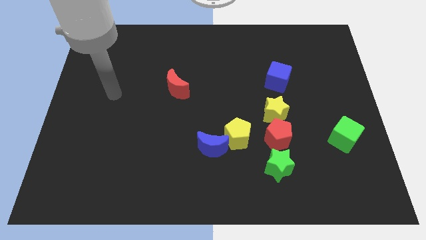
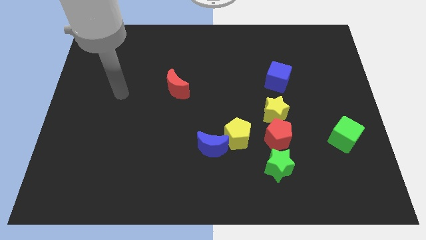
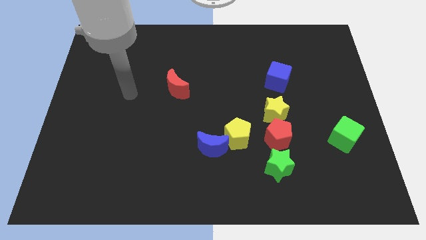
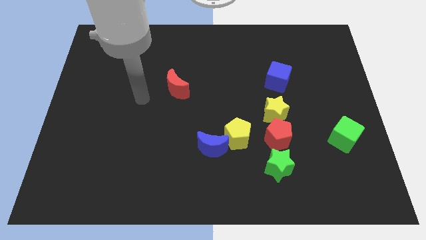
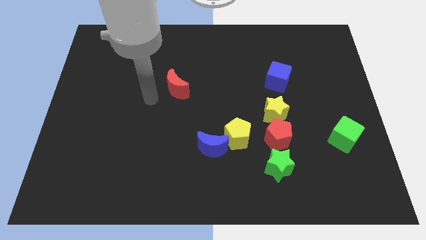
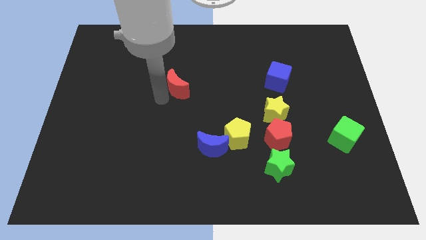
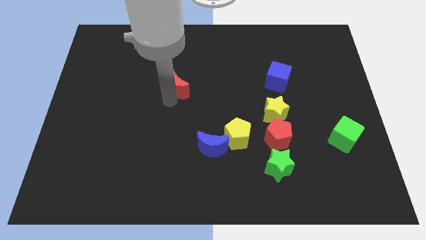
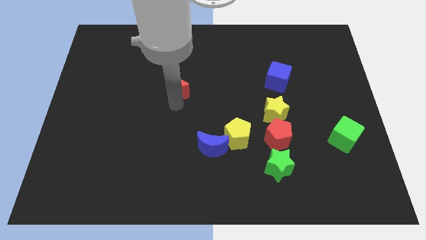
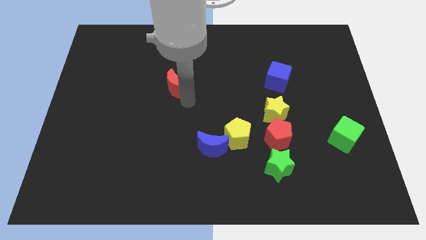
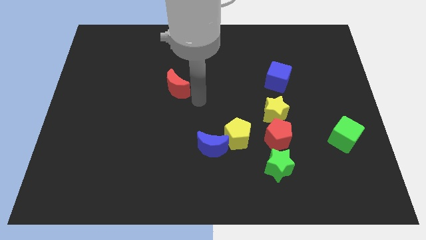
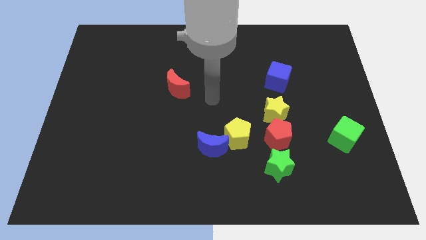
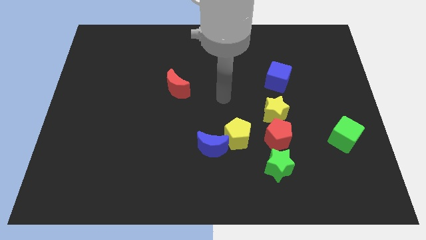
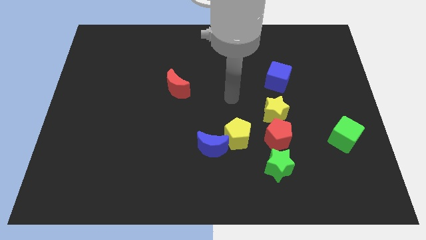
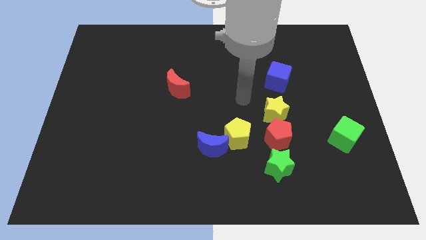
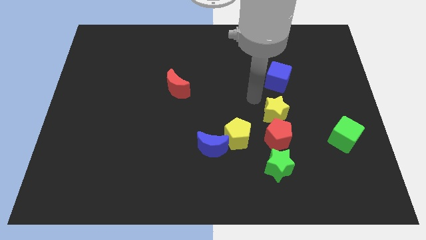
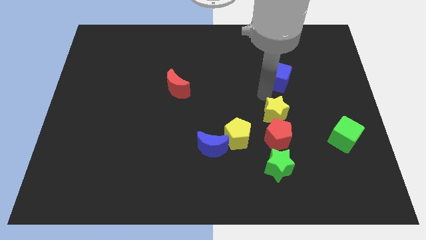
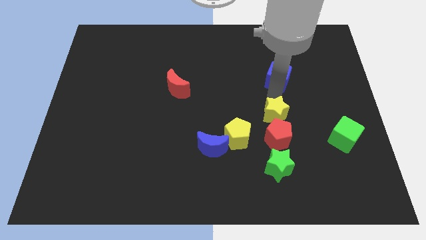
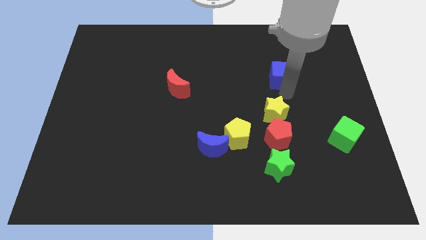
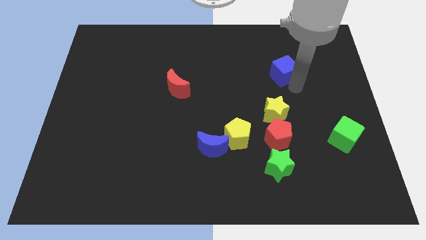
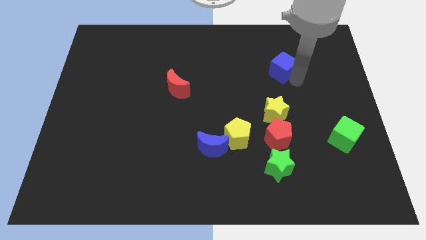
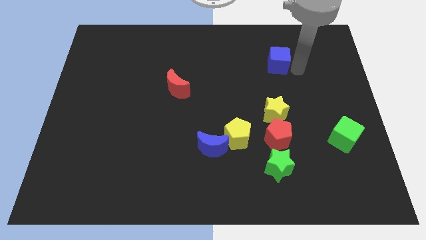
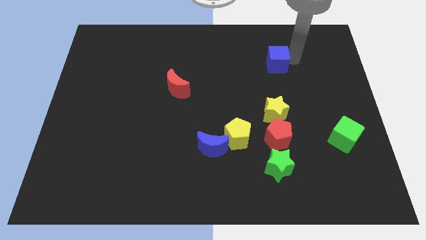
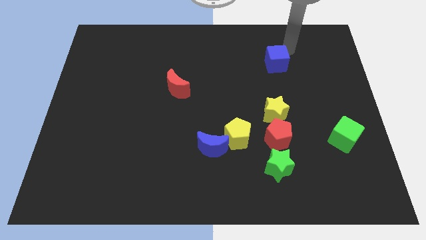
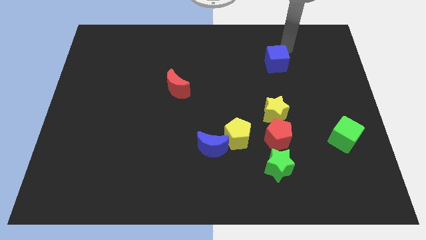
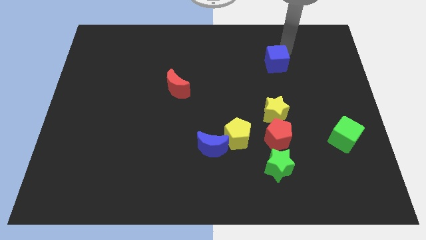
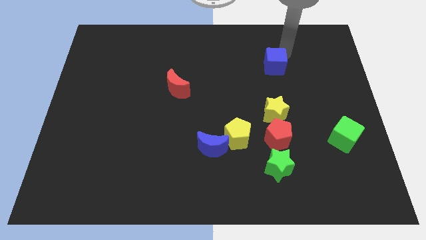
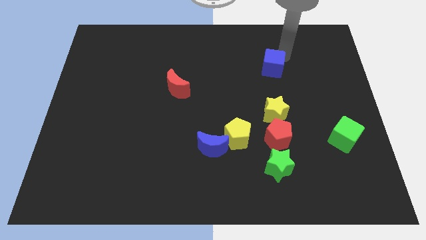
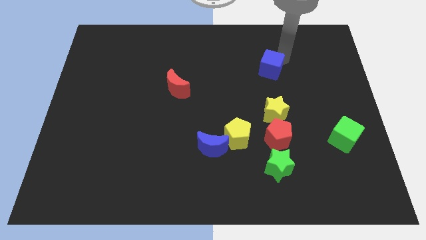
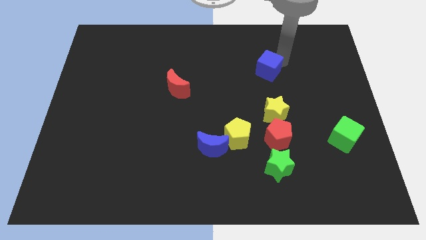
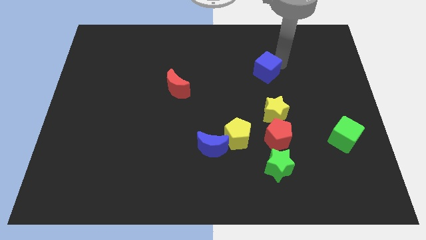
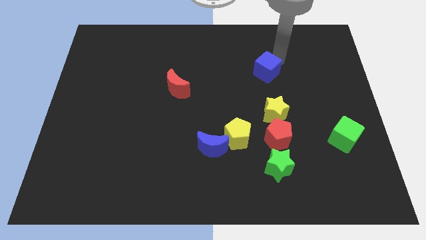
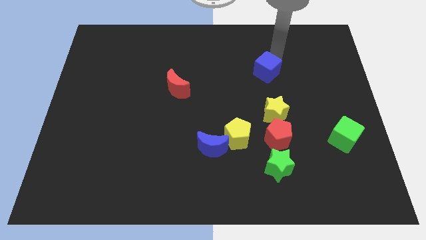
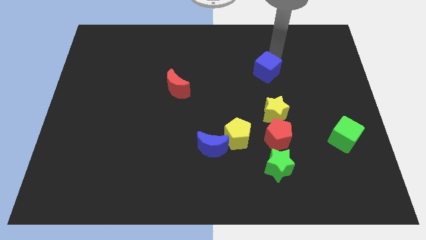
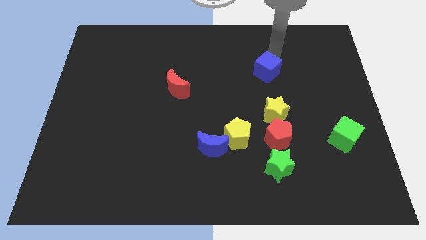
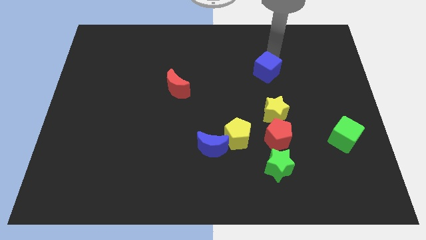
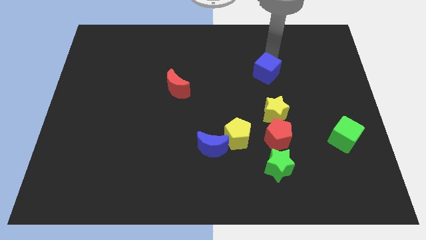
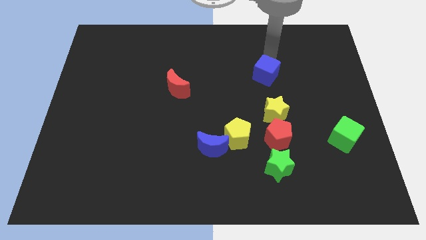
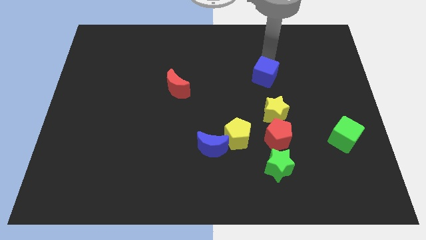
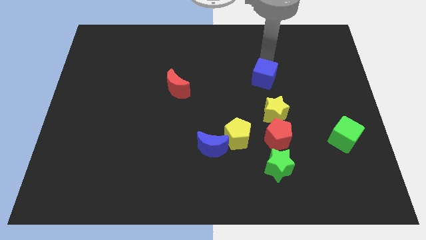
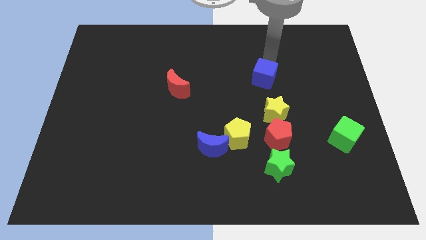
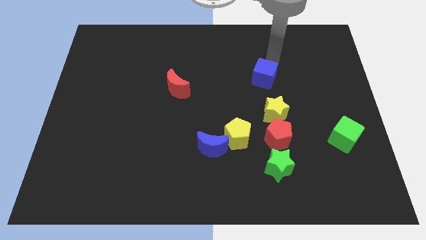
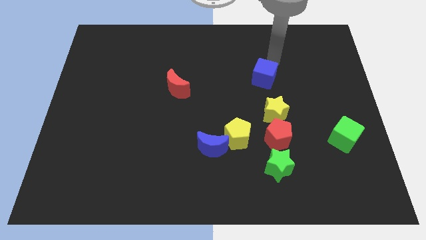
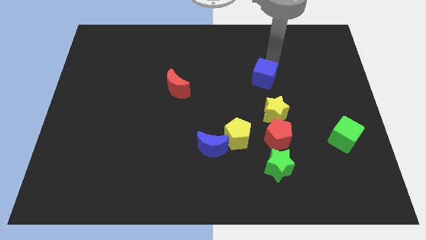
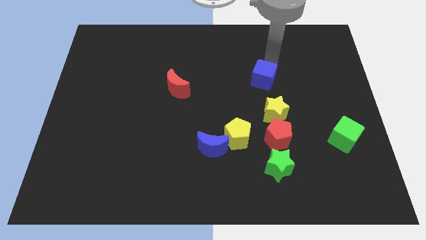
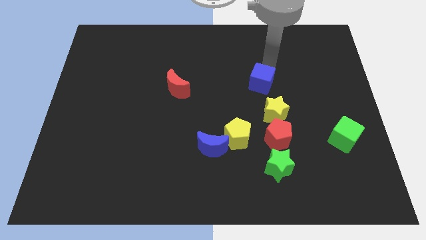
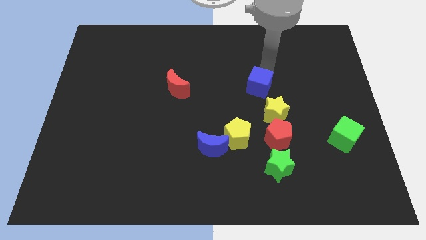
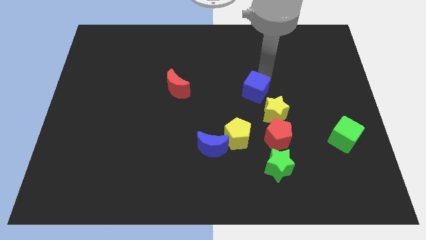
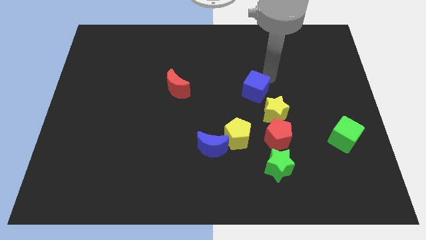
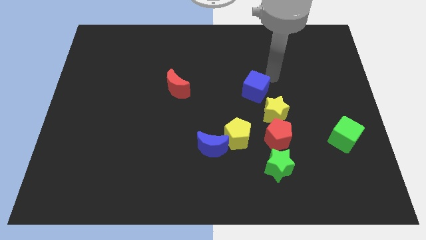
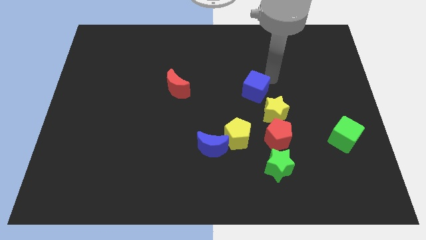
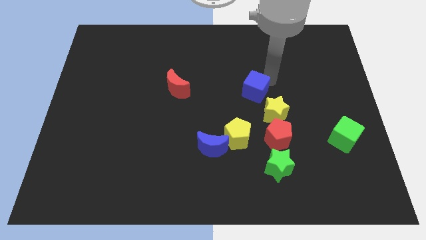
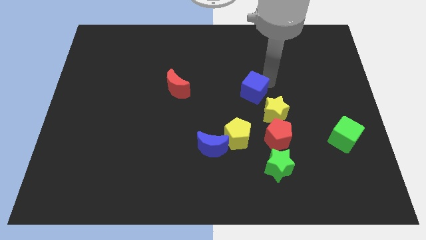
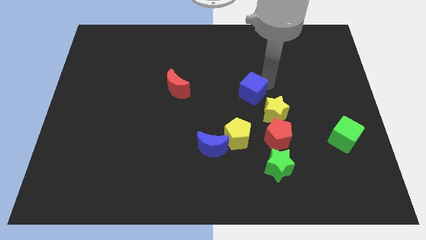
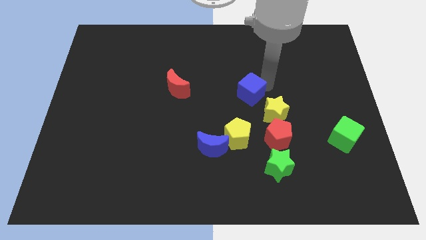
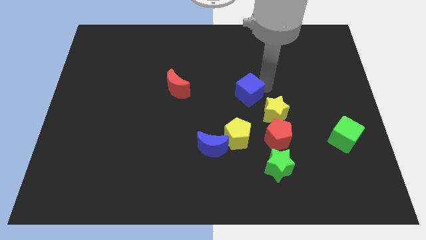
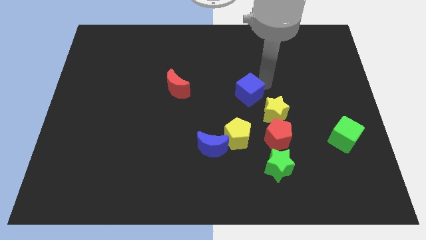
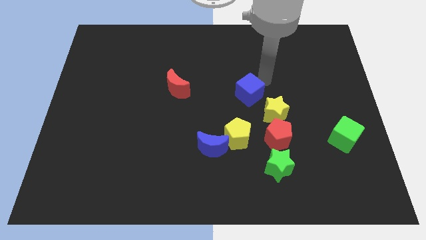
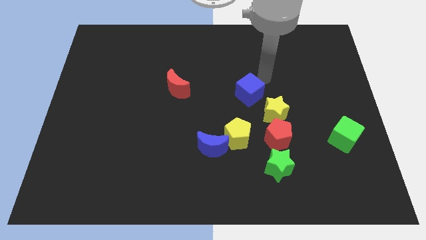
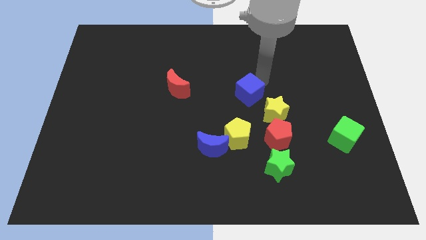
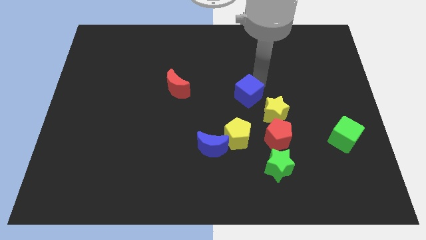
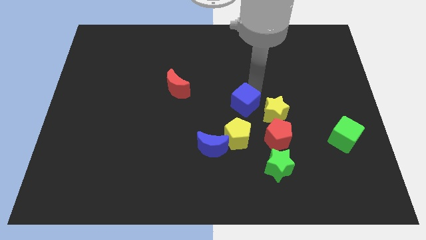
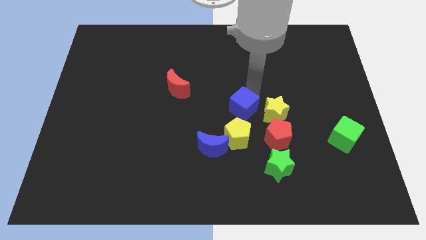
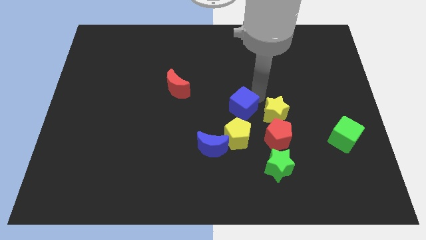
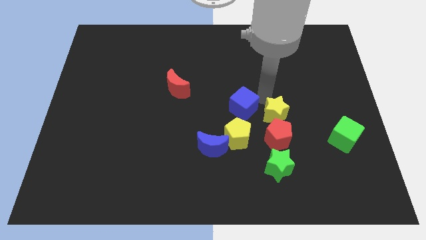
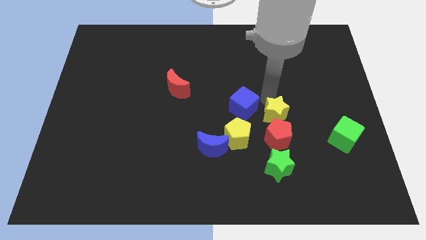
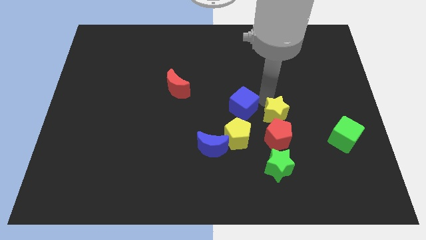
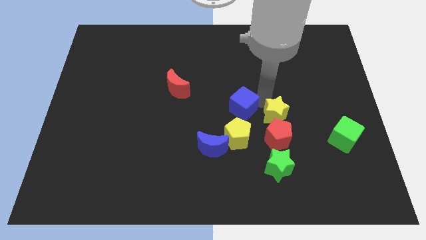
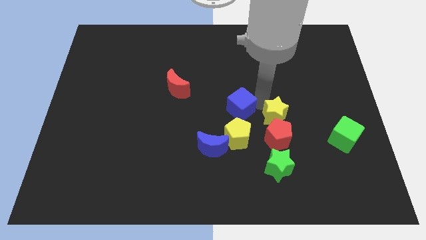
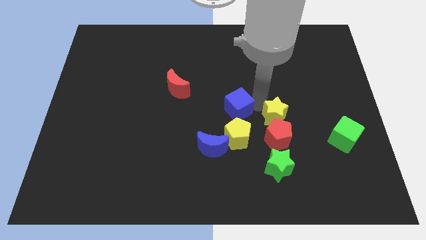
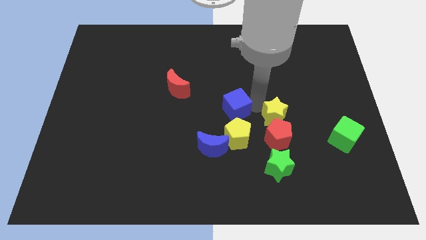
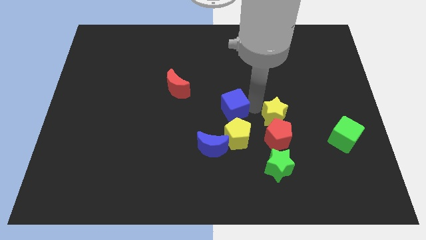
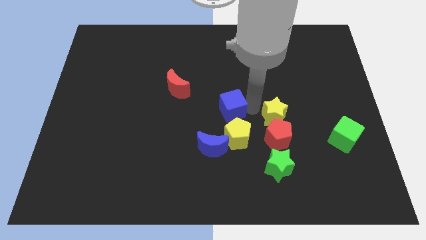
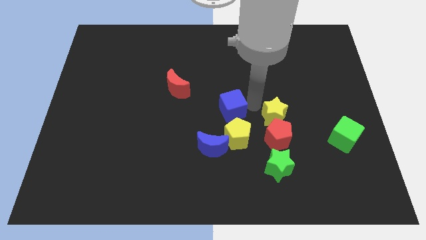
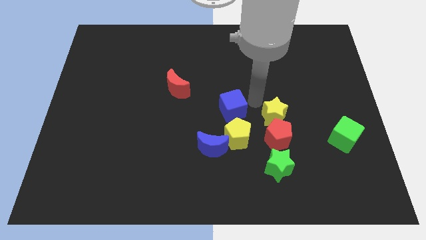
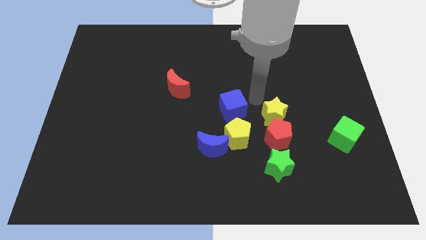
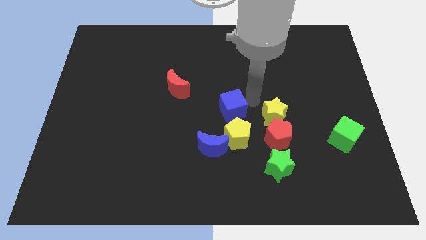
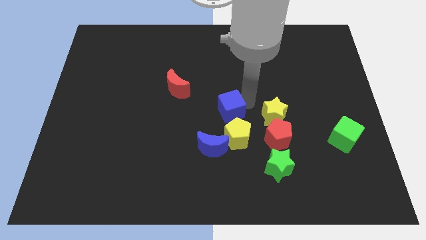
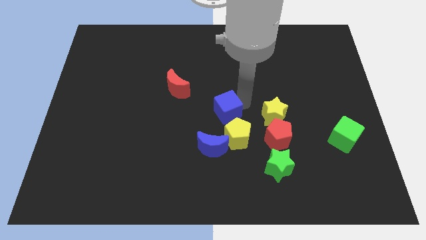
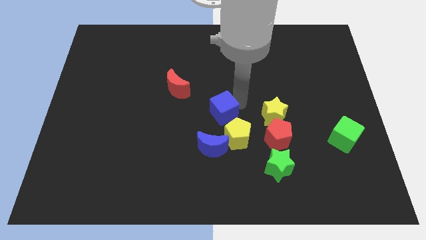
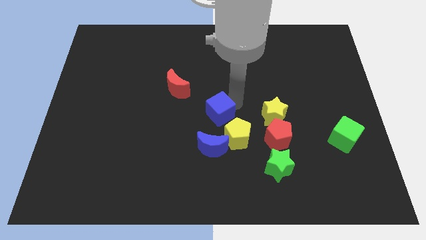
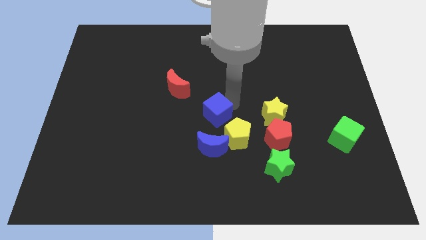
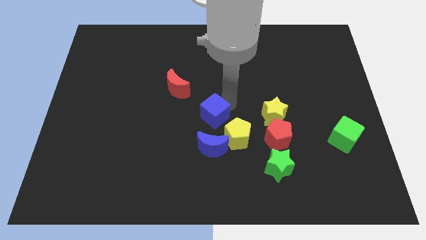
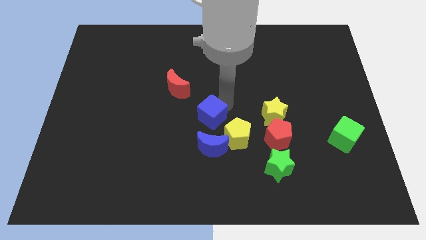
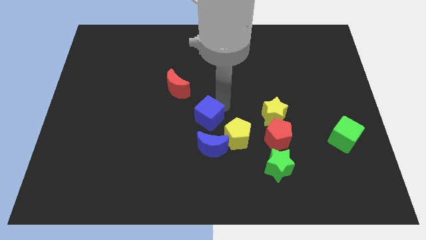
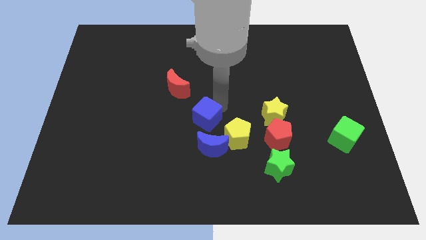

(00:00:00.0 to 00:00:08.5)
push the blue cube diagonally down and to the left

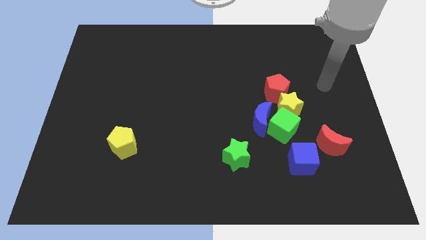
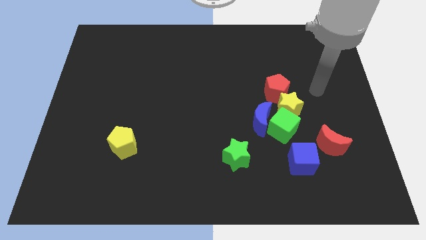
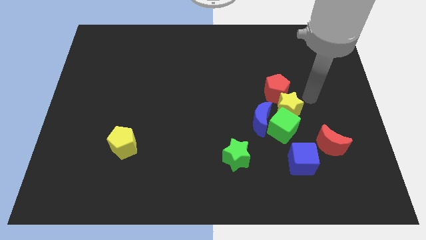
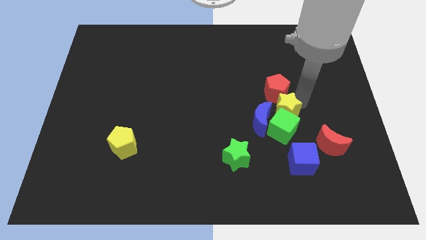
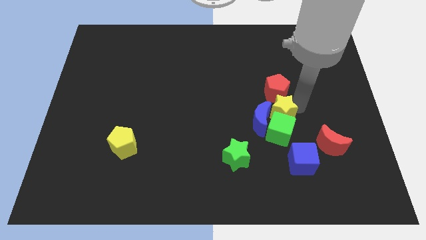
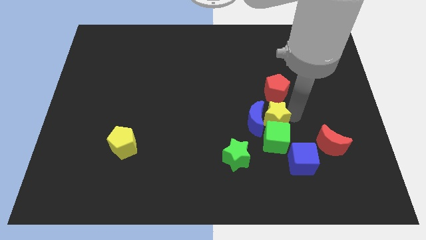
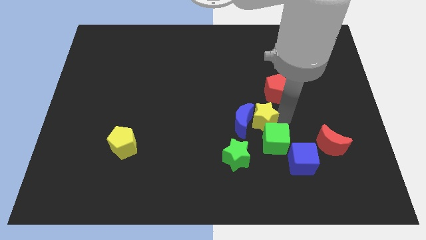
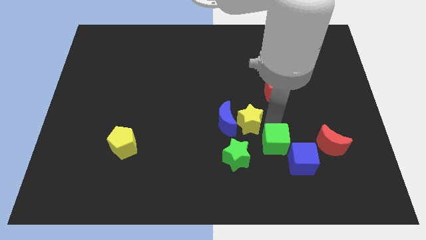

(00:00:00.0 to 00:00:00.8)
move the blue moon to the left a little bit
